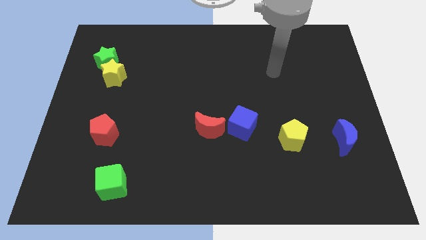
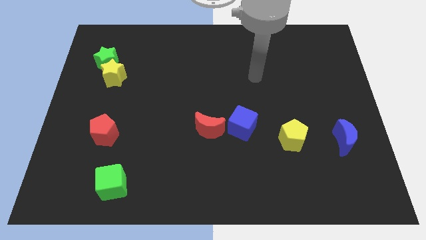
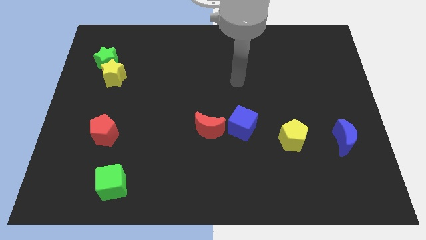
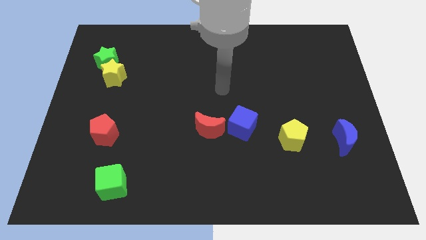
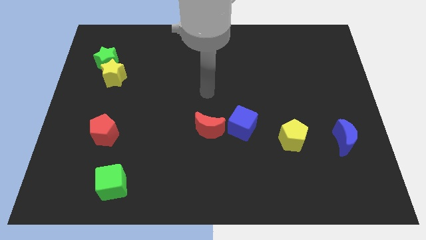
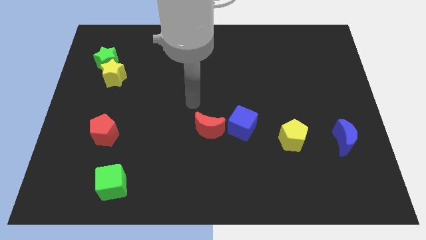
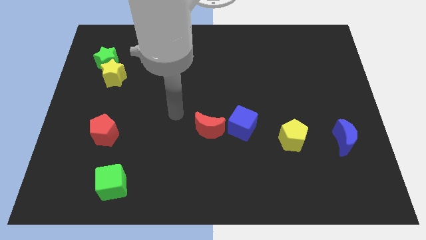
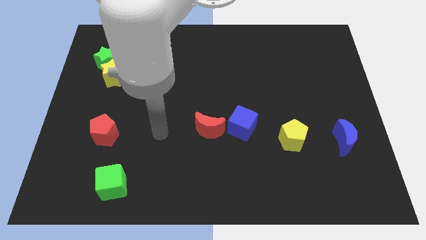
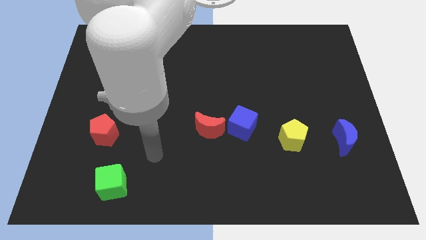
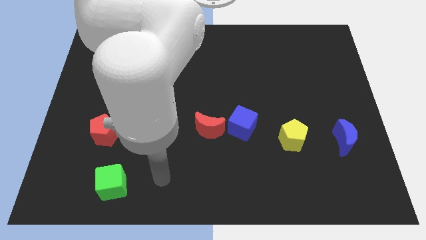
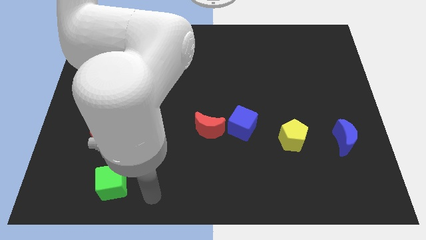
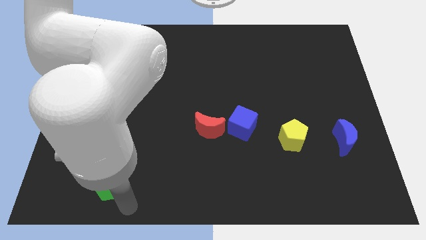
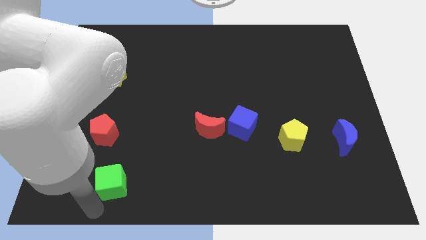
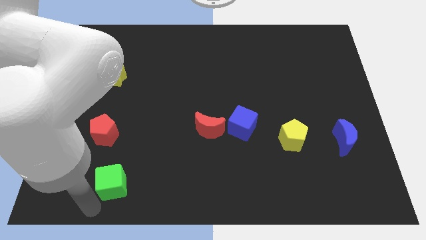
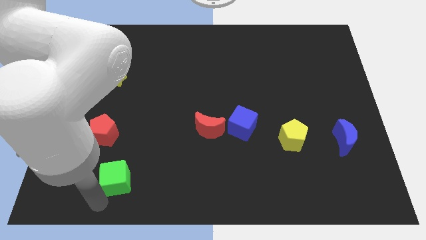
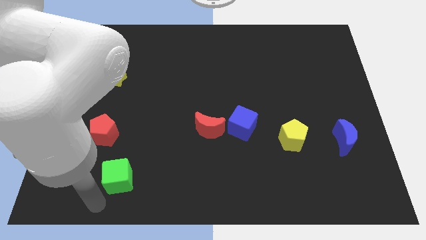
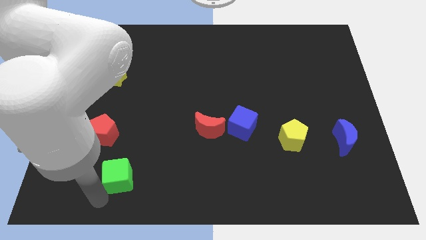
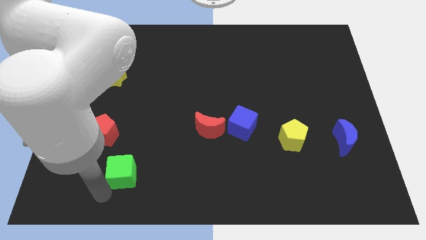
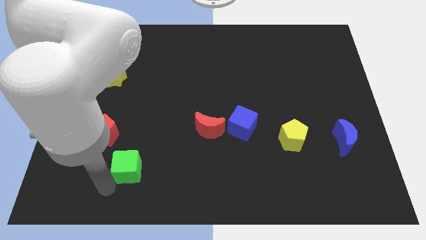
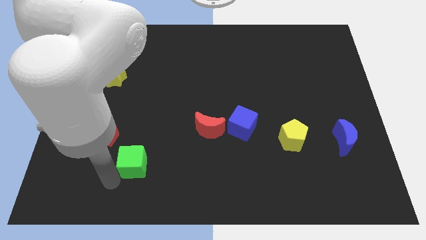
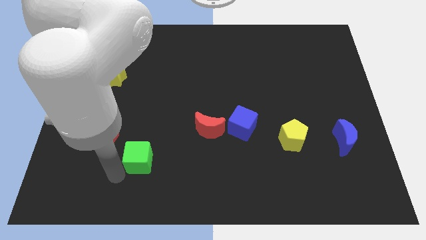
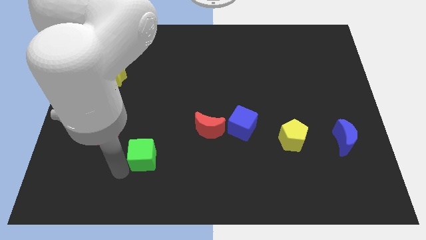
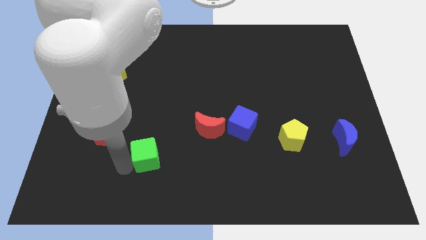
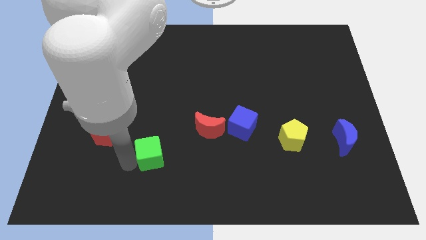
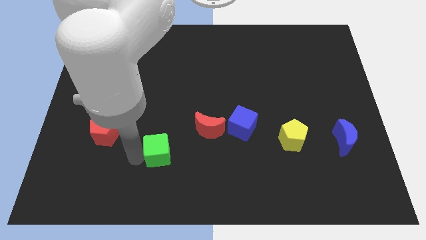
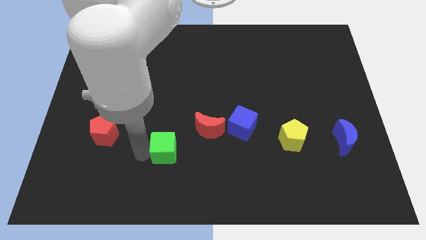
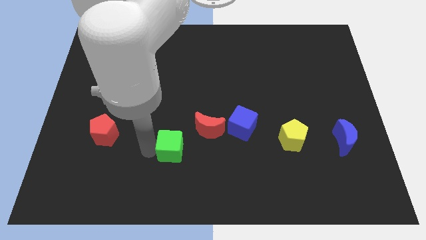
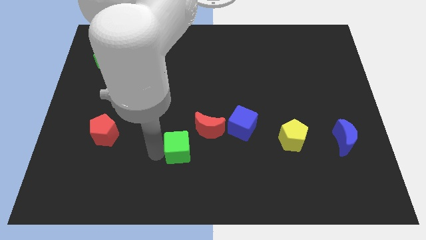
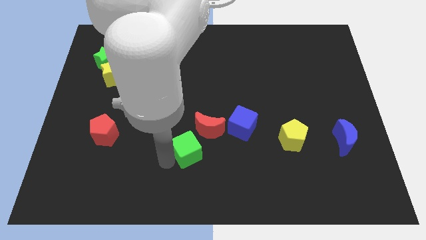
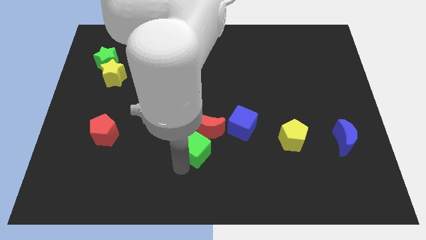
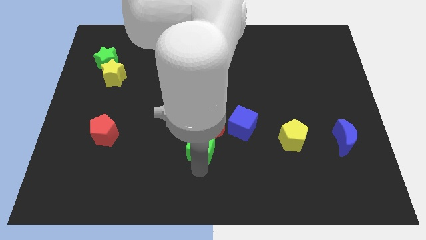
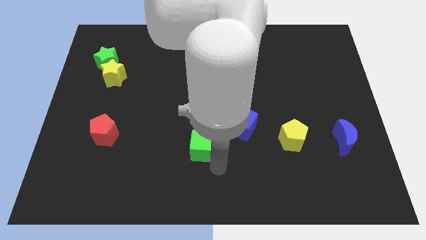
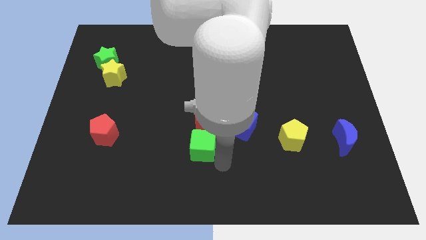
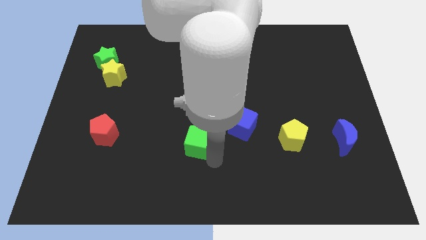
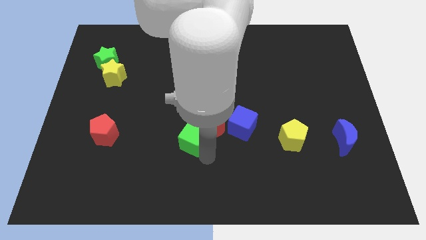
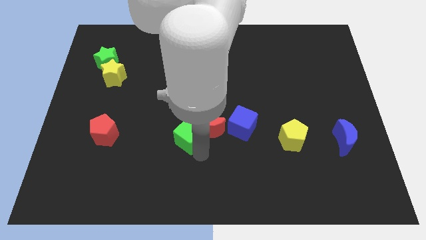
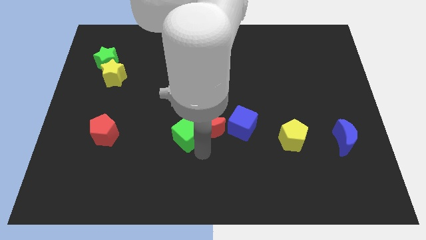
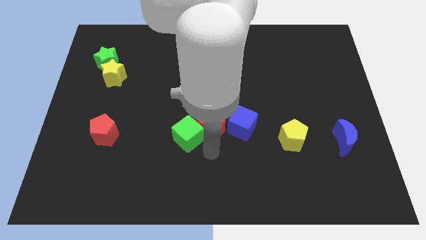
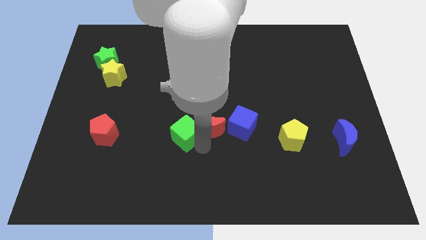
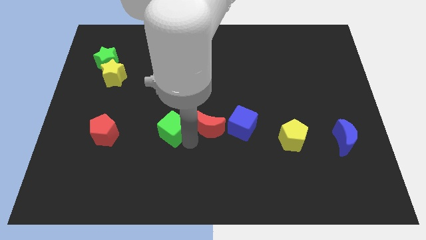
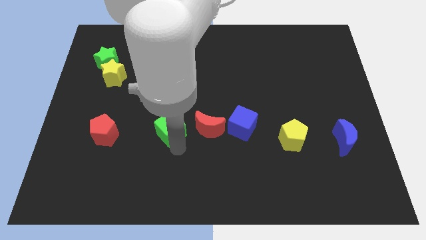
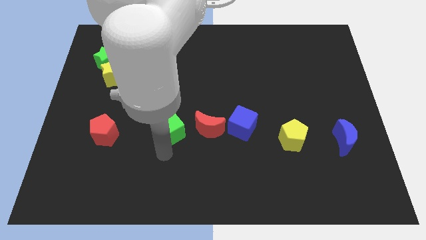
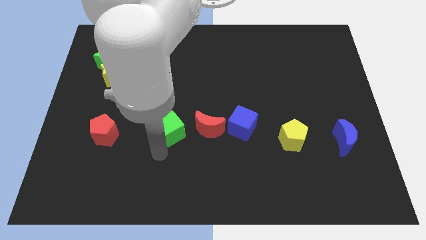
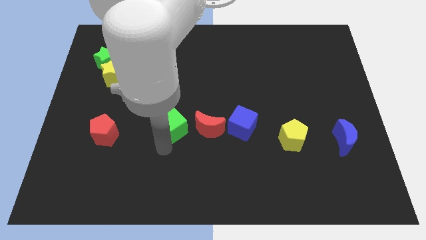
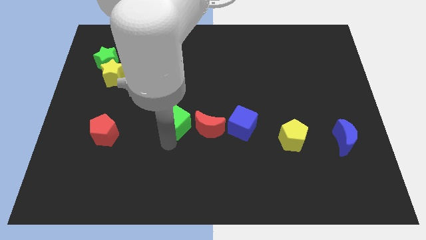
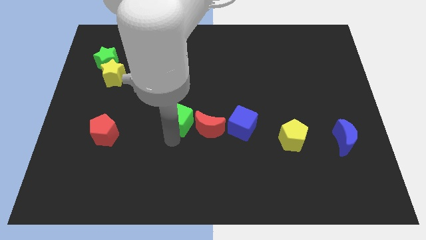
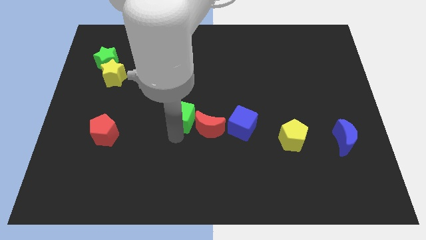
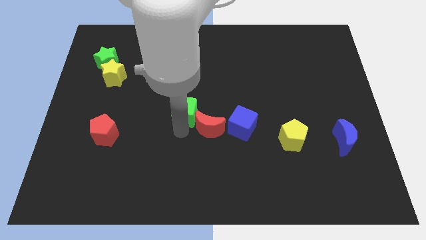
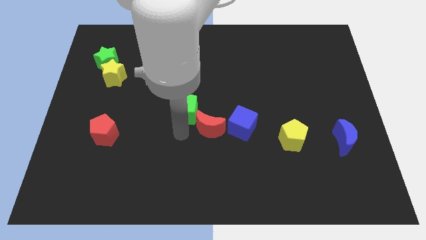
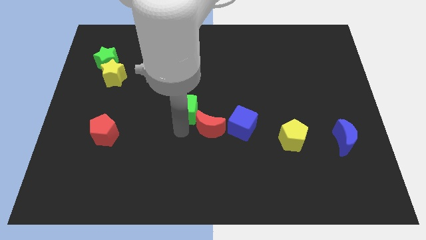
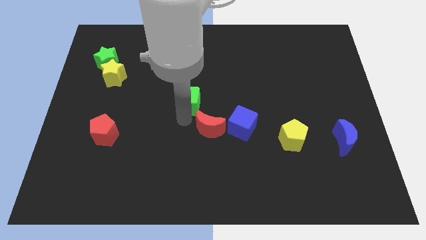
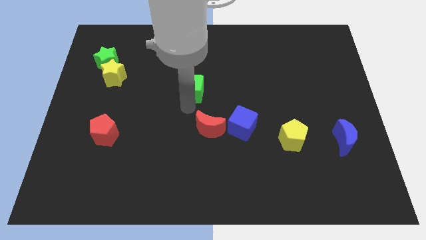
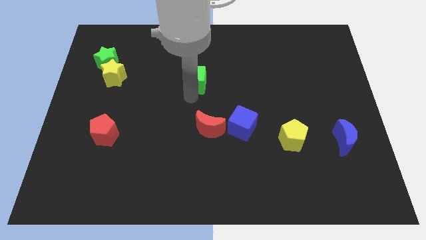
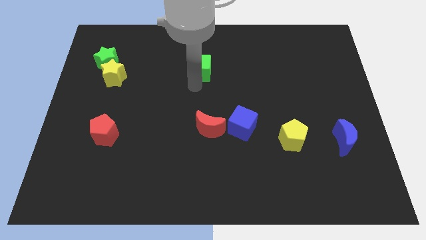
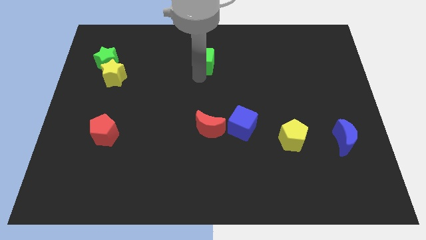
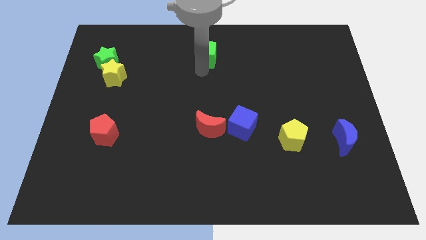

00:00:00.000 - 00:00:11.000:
move the green cube to the towards your base
